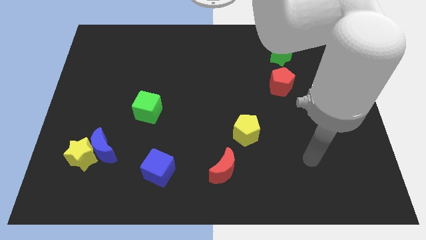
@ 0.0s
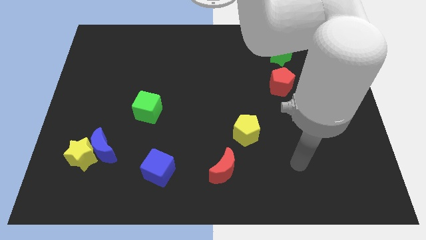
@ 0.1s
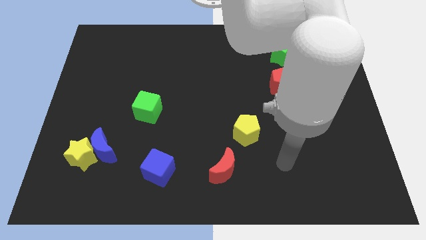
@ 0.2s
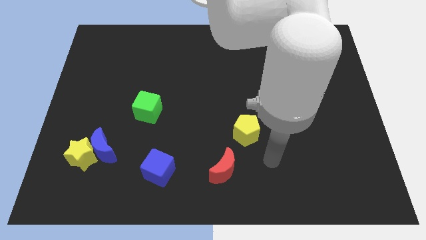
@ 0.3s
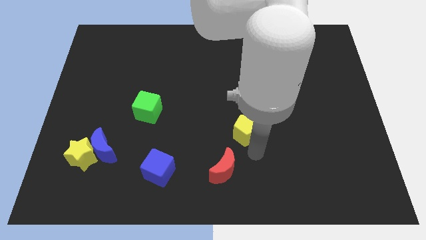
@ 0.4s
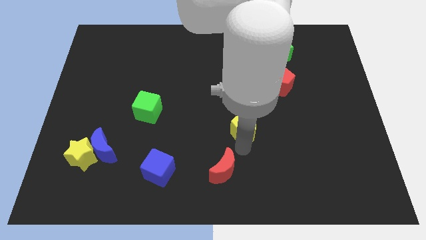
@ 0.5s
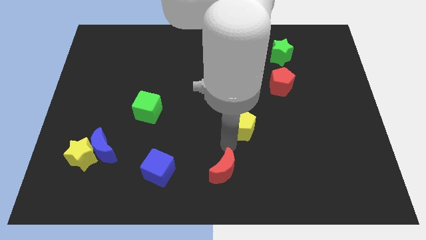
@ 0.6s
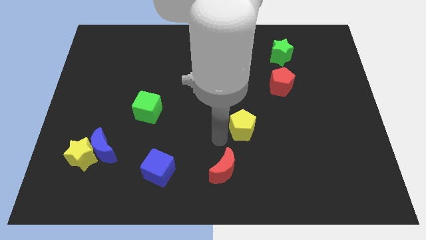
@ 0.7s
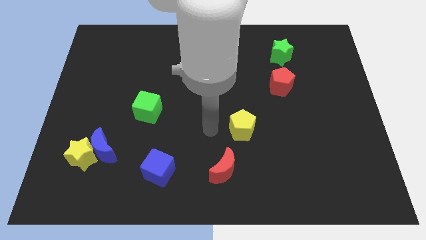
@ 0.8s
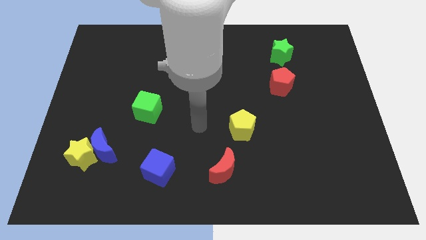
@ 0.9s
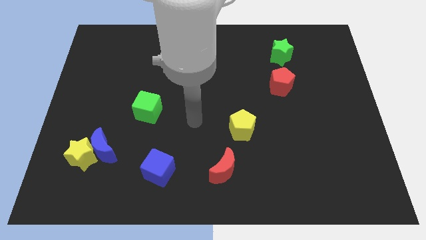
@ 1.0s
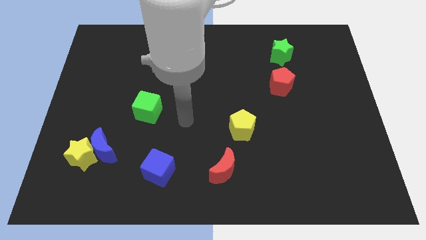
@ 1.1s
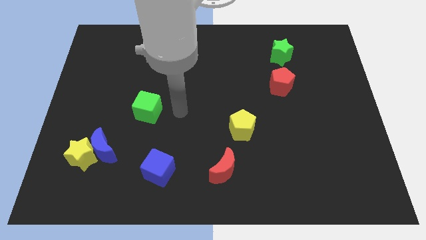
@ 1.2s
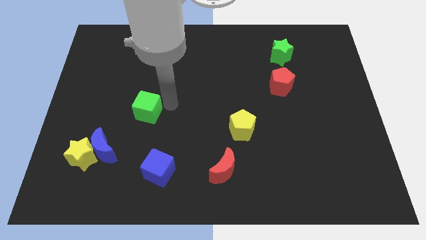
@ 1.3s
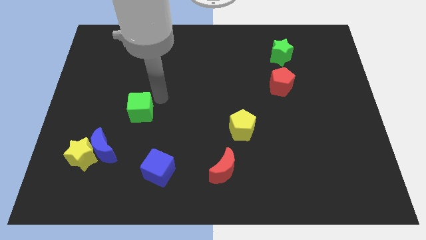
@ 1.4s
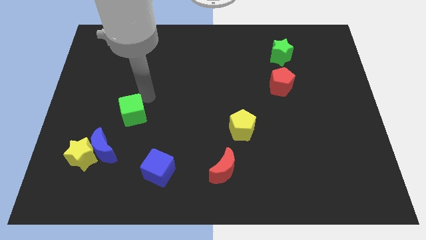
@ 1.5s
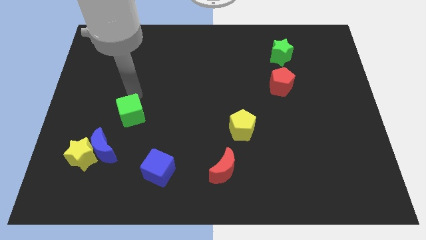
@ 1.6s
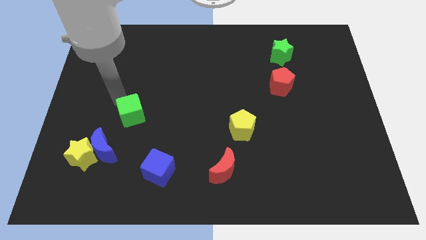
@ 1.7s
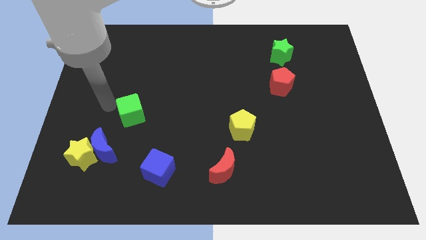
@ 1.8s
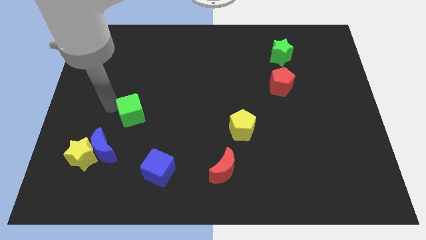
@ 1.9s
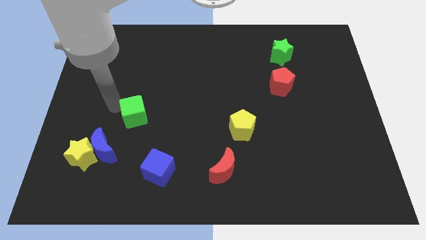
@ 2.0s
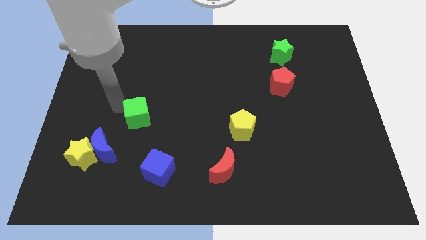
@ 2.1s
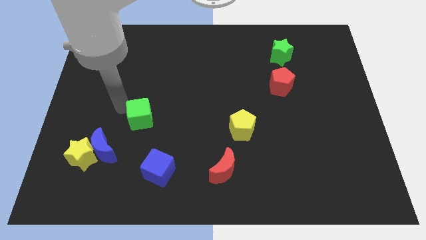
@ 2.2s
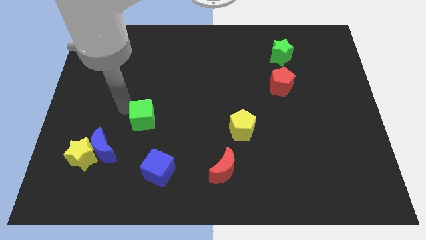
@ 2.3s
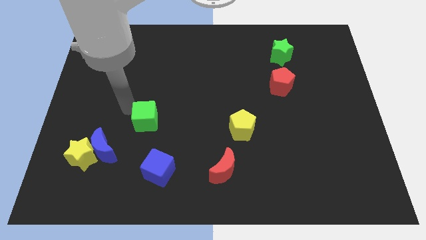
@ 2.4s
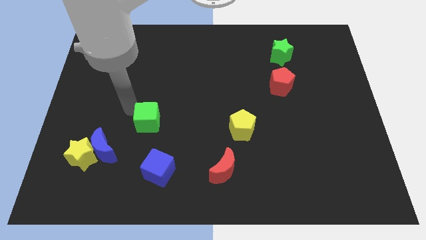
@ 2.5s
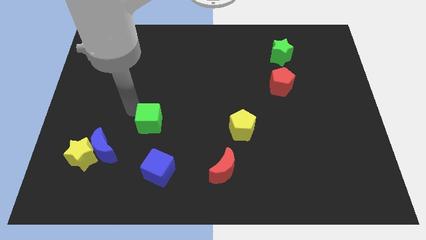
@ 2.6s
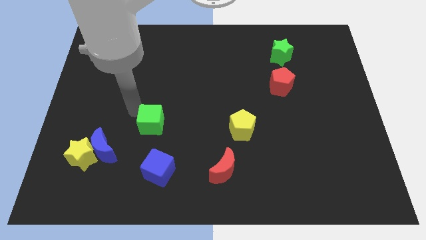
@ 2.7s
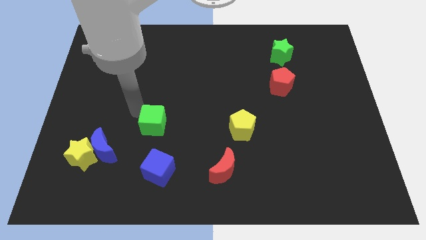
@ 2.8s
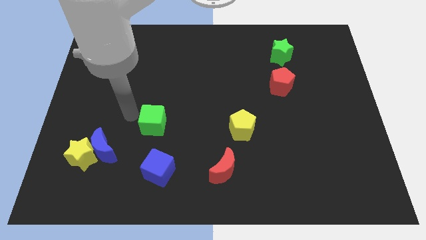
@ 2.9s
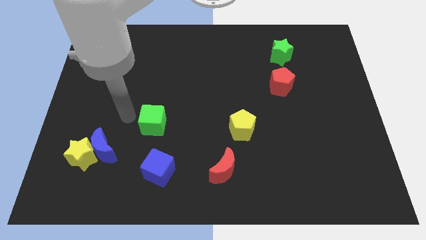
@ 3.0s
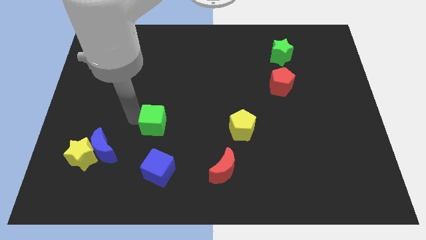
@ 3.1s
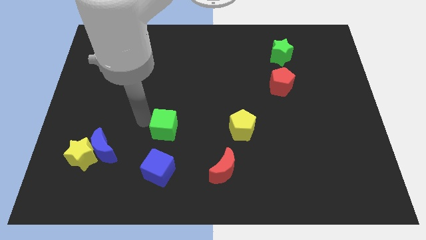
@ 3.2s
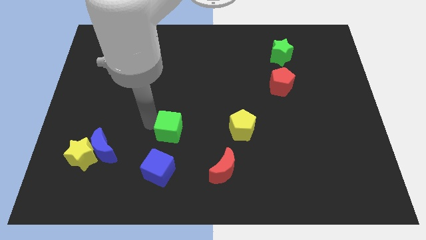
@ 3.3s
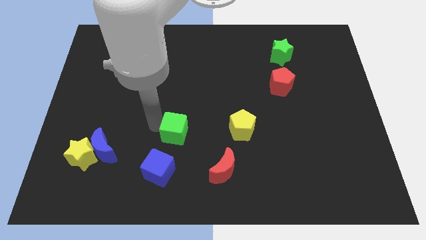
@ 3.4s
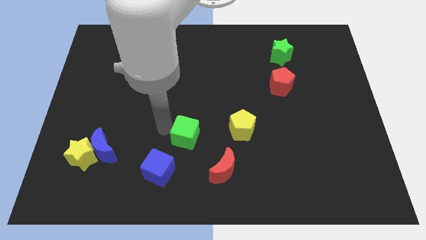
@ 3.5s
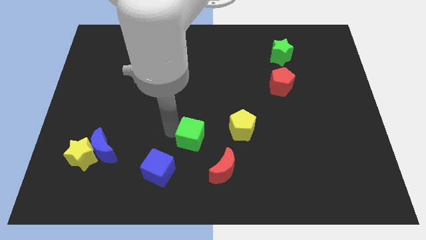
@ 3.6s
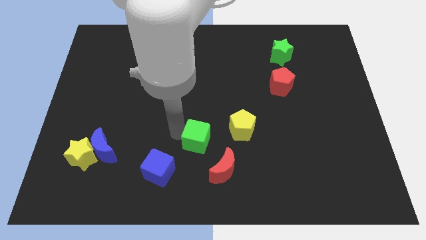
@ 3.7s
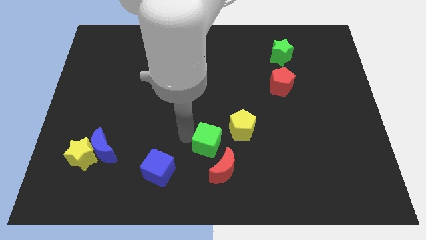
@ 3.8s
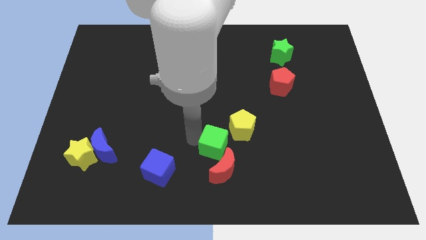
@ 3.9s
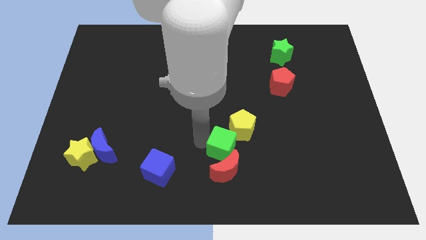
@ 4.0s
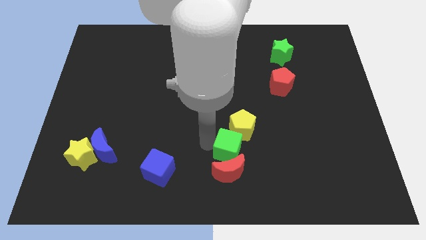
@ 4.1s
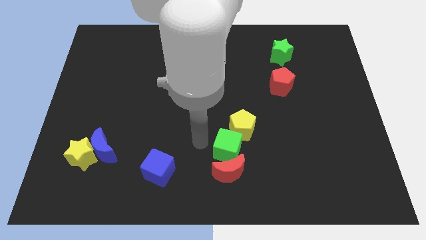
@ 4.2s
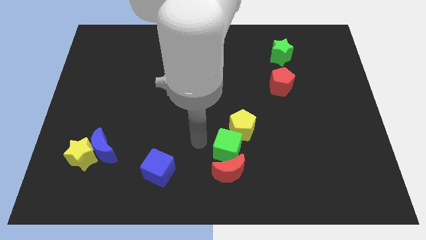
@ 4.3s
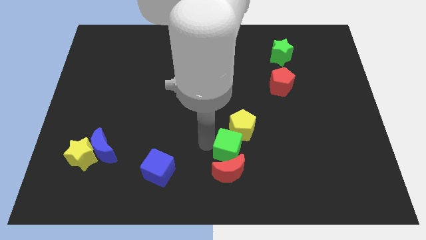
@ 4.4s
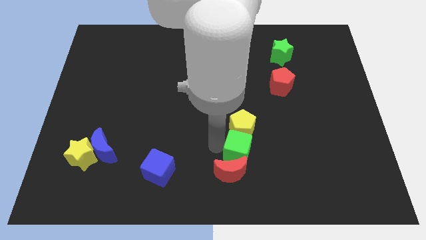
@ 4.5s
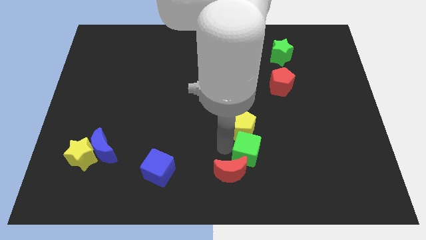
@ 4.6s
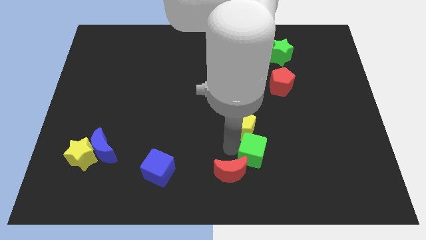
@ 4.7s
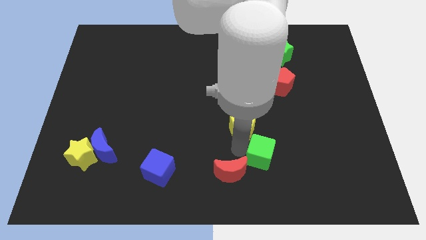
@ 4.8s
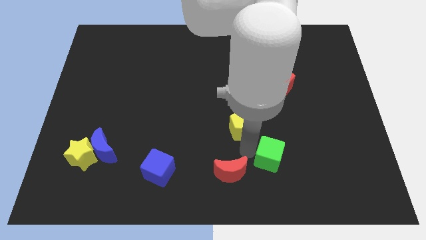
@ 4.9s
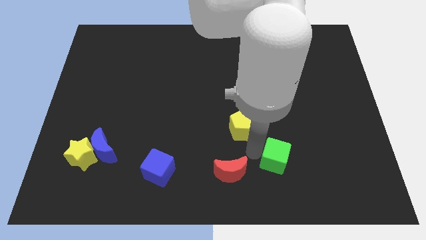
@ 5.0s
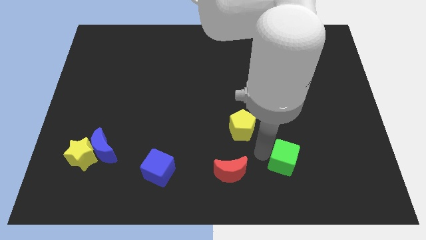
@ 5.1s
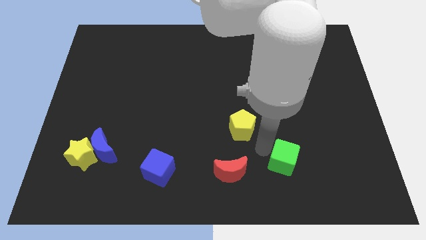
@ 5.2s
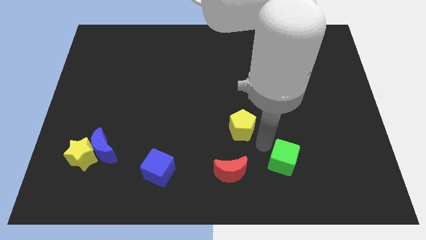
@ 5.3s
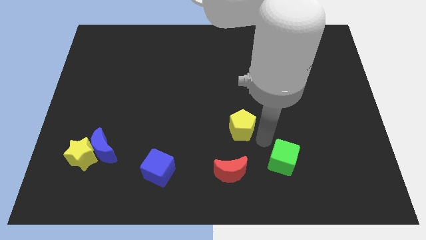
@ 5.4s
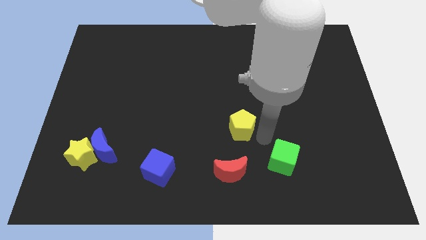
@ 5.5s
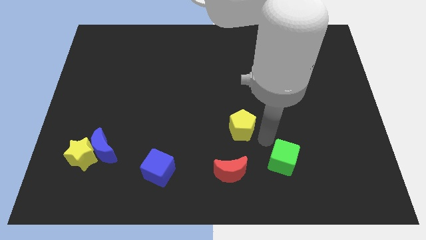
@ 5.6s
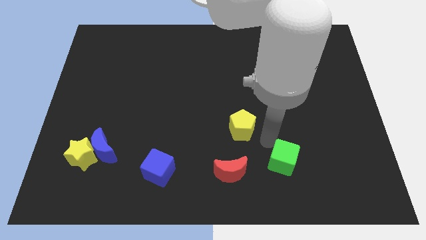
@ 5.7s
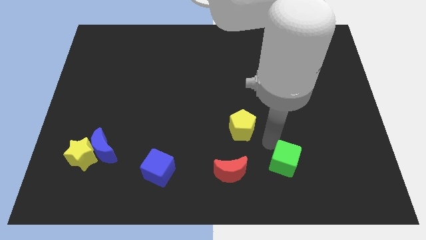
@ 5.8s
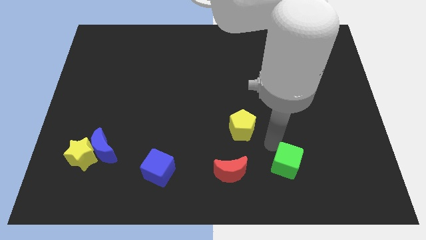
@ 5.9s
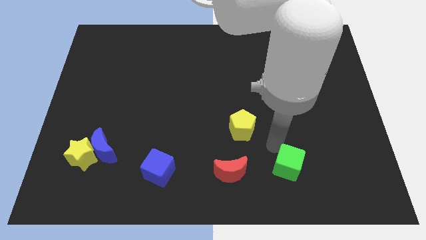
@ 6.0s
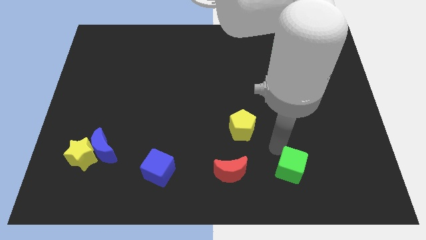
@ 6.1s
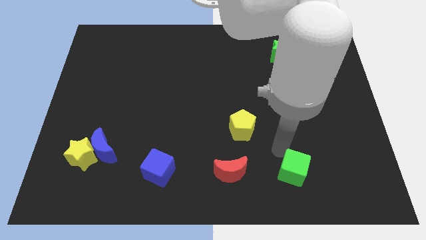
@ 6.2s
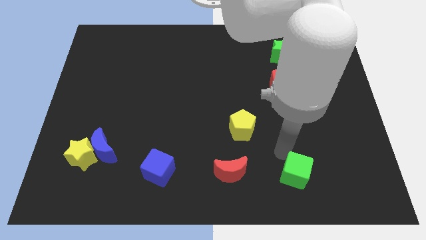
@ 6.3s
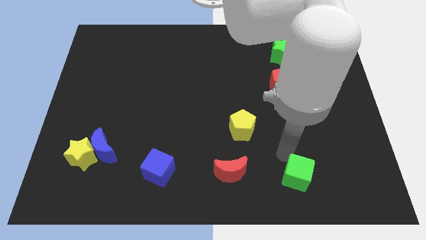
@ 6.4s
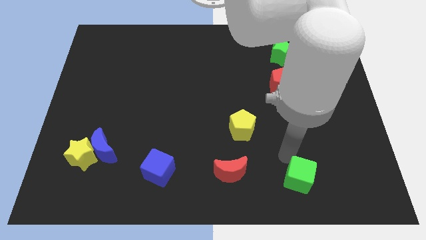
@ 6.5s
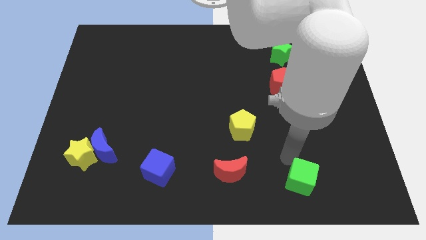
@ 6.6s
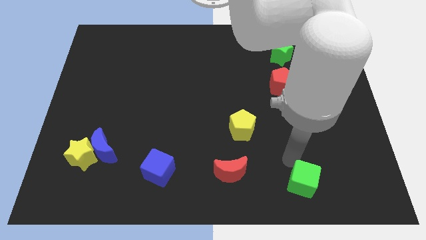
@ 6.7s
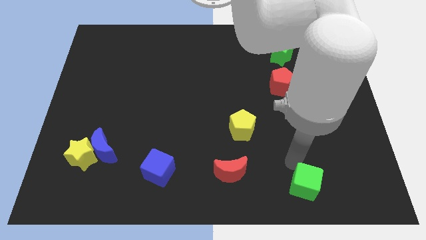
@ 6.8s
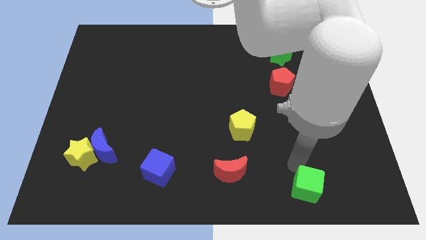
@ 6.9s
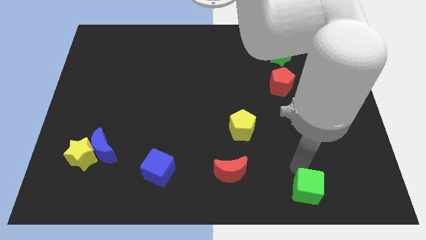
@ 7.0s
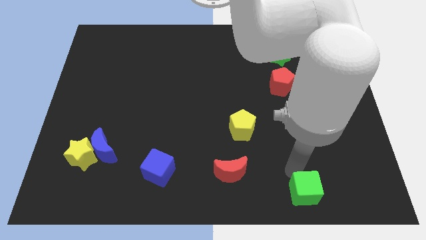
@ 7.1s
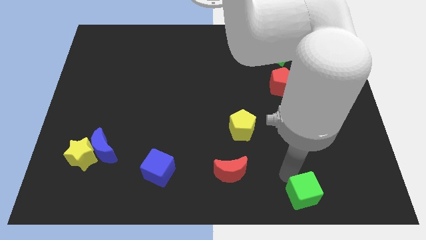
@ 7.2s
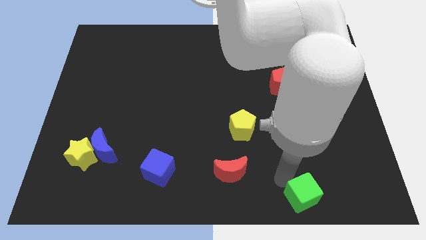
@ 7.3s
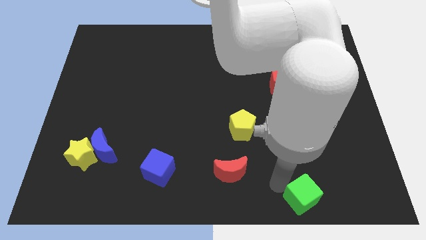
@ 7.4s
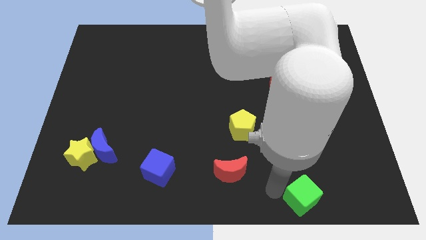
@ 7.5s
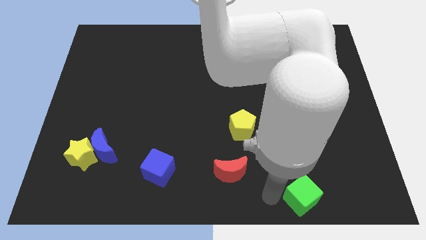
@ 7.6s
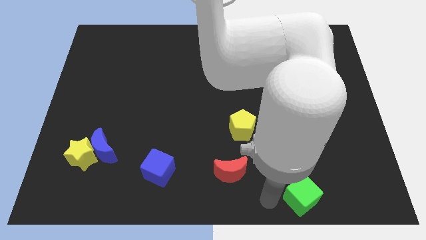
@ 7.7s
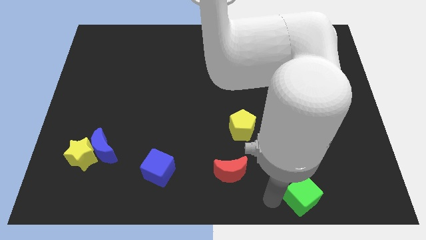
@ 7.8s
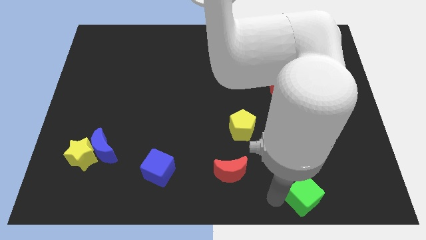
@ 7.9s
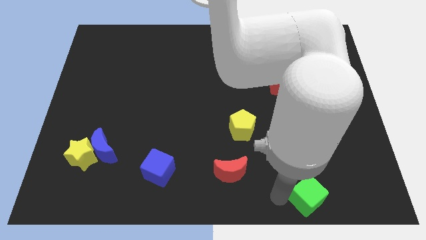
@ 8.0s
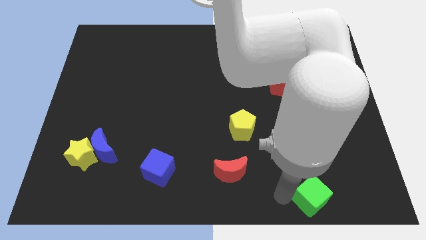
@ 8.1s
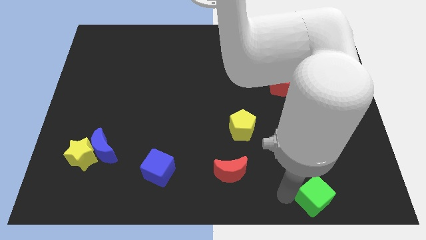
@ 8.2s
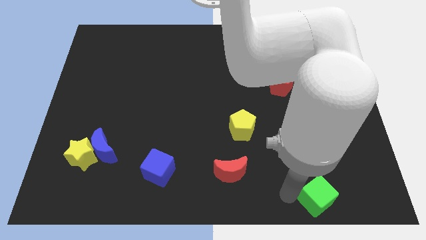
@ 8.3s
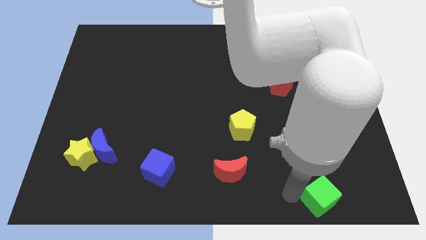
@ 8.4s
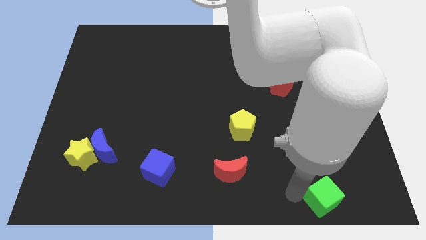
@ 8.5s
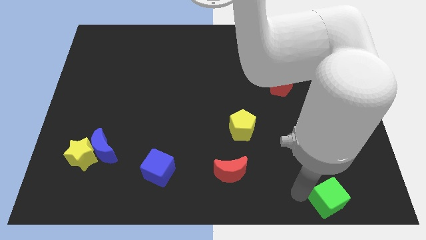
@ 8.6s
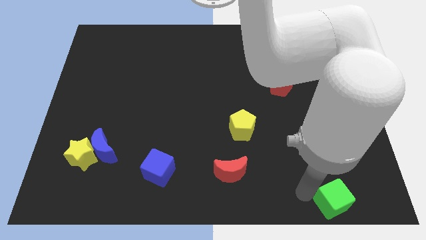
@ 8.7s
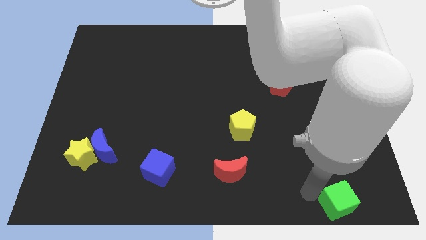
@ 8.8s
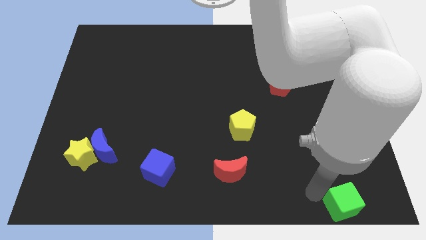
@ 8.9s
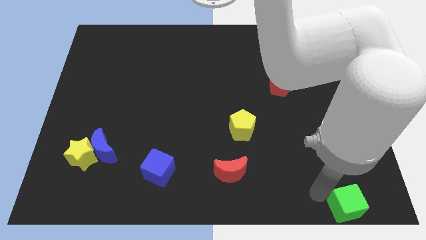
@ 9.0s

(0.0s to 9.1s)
push the green cube to the bottom right
